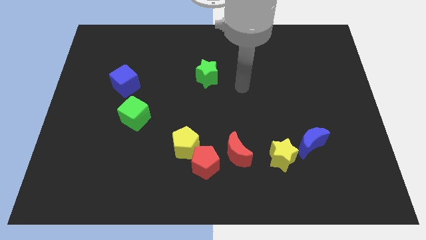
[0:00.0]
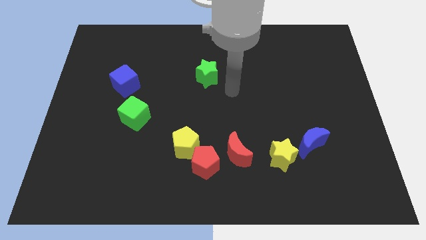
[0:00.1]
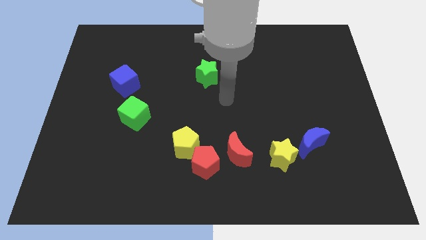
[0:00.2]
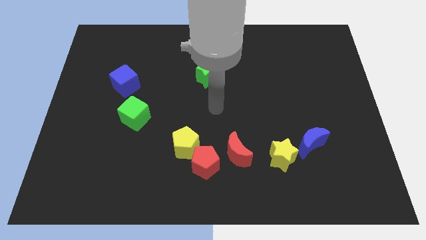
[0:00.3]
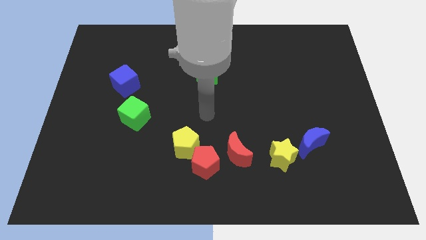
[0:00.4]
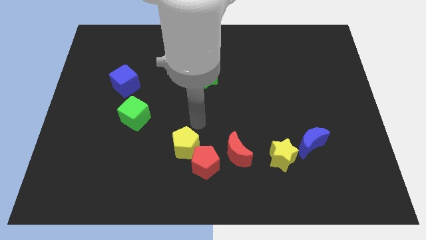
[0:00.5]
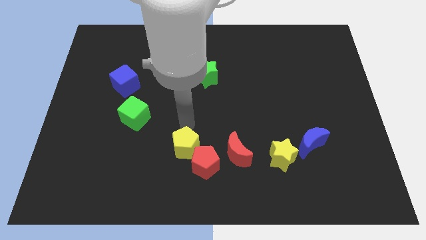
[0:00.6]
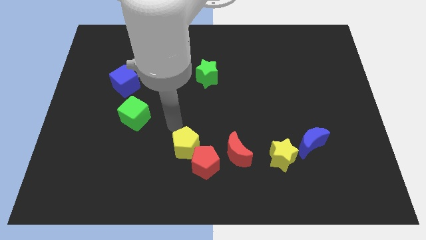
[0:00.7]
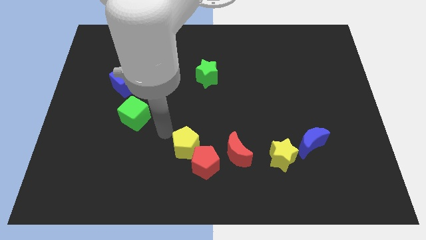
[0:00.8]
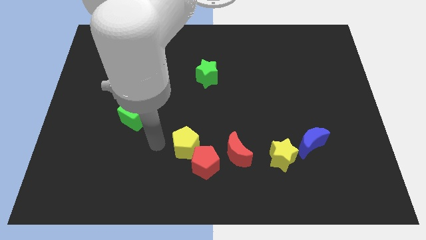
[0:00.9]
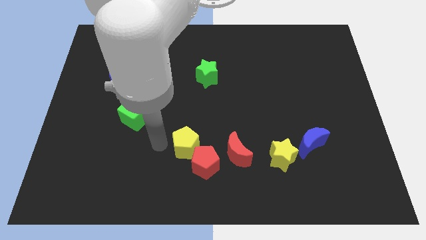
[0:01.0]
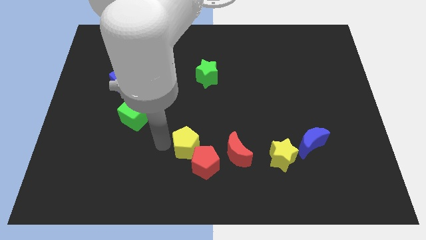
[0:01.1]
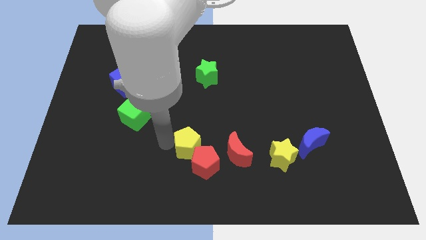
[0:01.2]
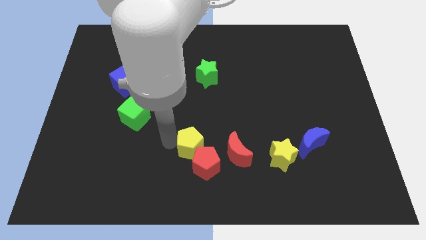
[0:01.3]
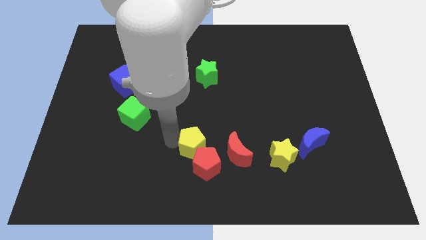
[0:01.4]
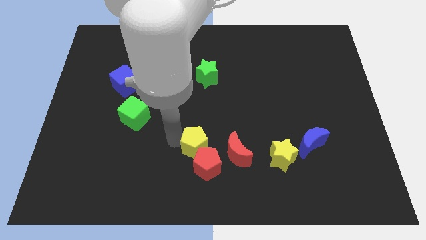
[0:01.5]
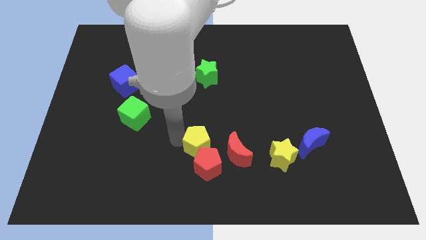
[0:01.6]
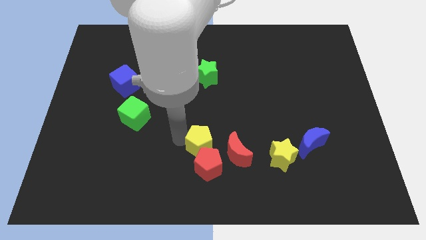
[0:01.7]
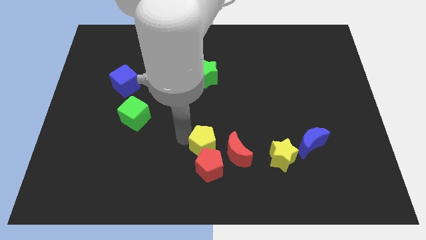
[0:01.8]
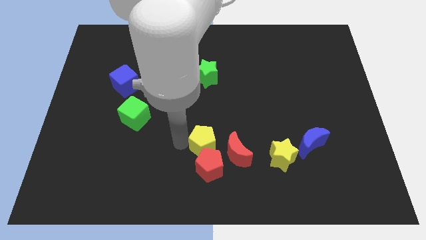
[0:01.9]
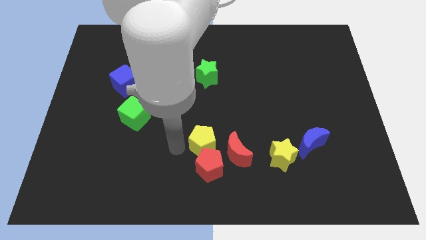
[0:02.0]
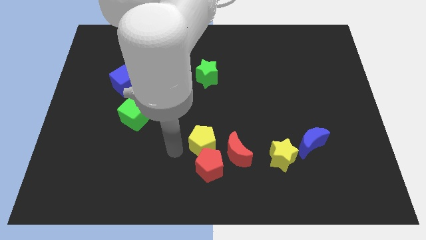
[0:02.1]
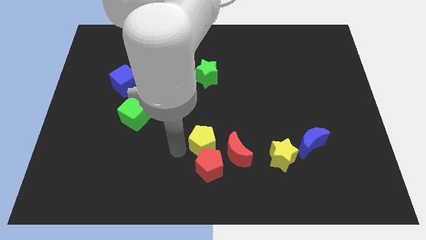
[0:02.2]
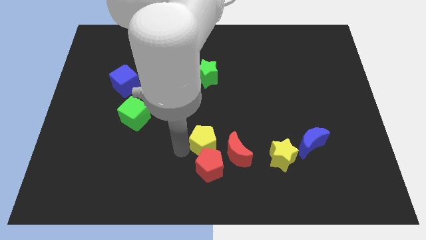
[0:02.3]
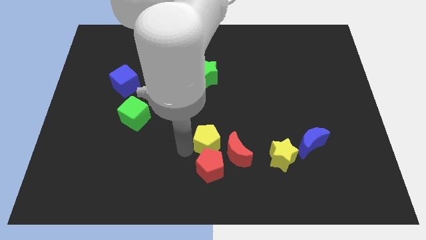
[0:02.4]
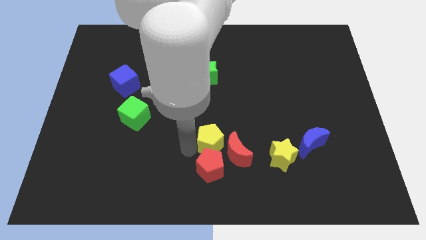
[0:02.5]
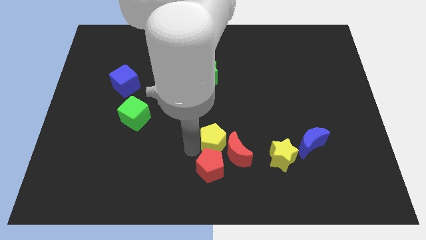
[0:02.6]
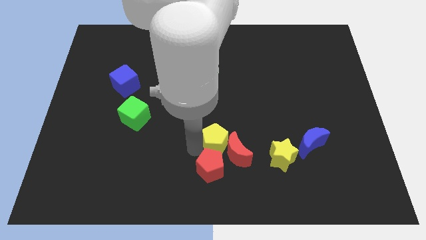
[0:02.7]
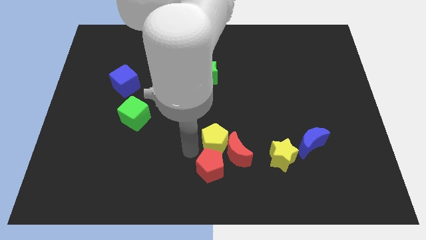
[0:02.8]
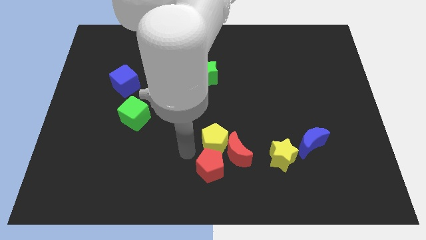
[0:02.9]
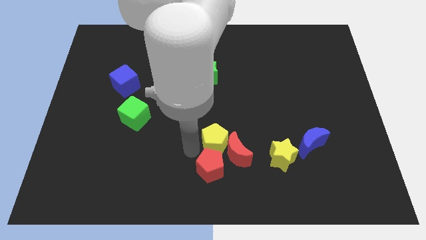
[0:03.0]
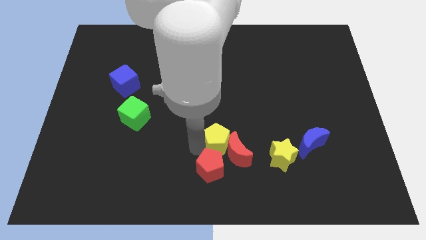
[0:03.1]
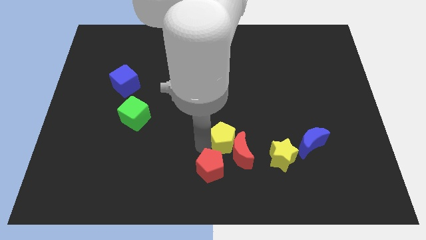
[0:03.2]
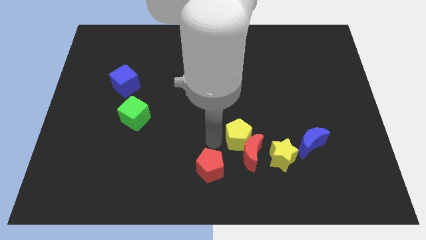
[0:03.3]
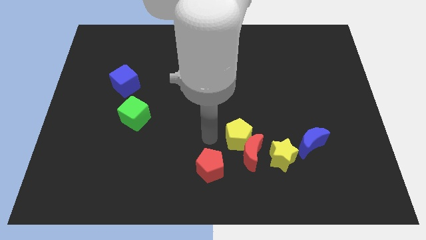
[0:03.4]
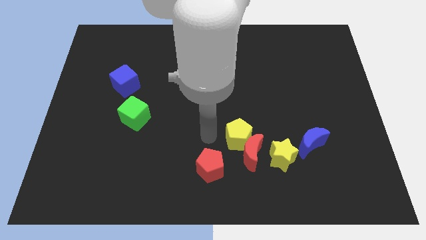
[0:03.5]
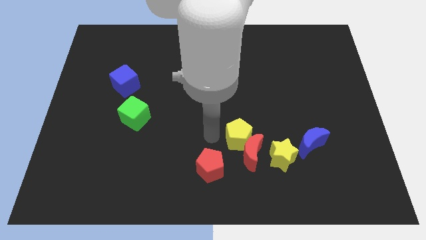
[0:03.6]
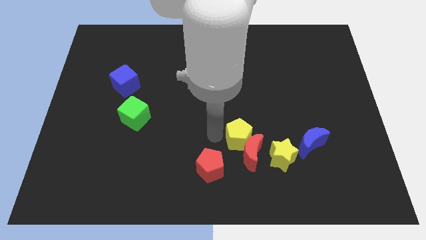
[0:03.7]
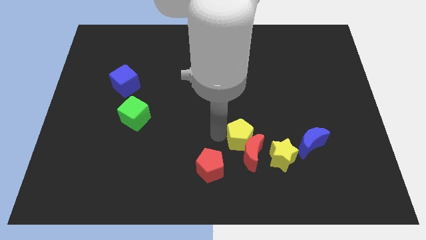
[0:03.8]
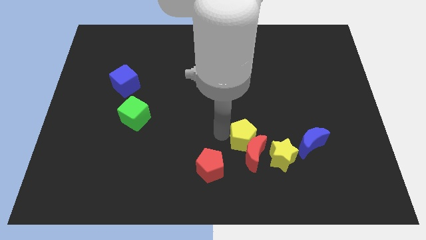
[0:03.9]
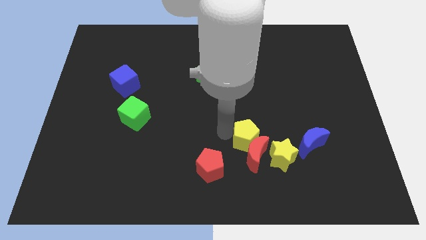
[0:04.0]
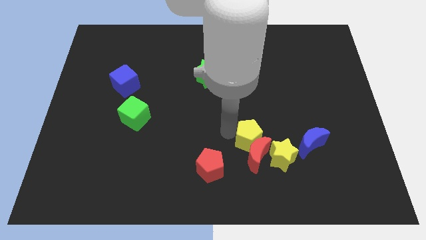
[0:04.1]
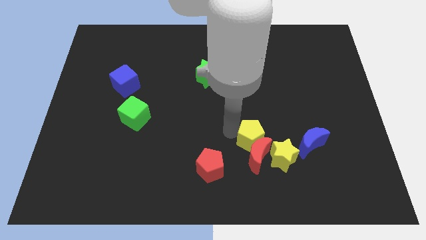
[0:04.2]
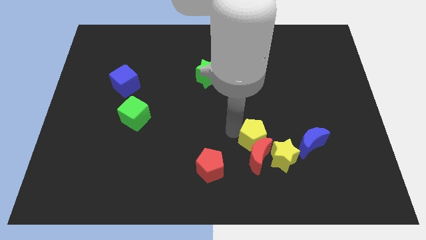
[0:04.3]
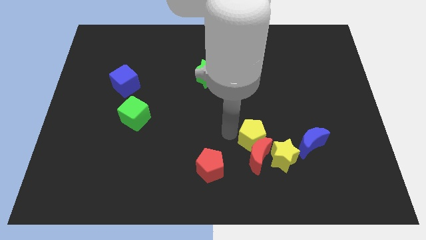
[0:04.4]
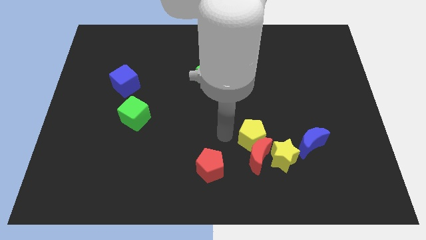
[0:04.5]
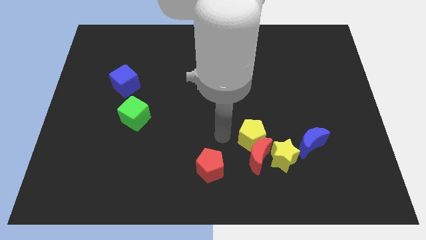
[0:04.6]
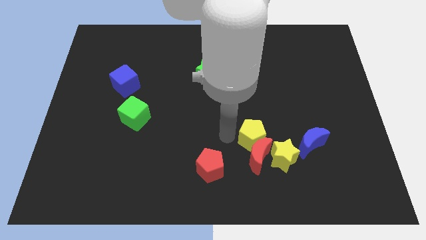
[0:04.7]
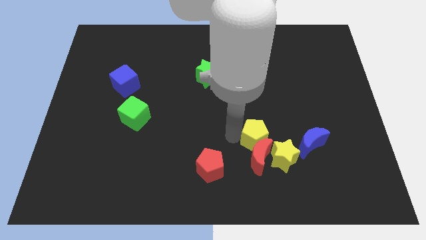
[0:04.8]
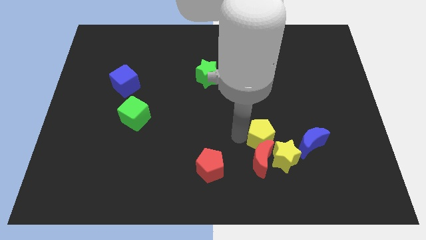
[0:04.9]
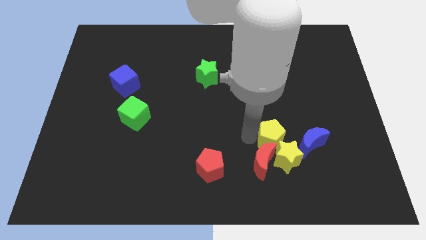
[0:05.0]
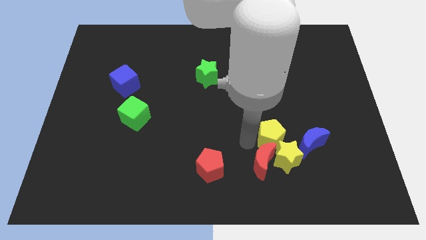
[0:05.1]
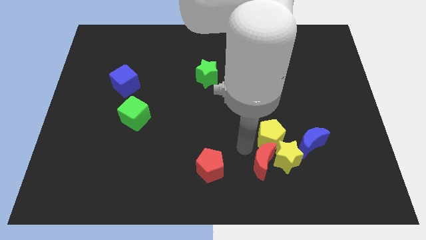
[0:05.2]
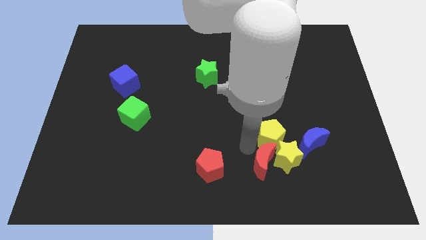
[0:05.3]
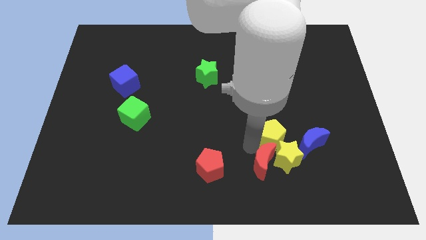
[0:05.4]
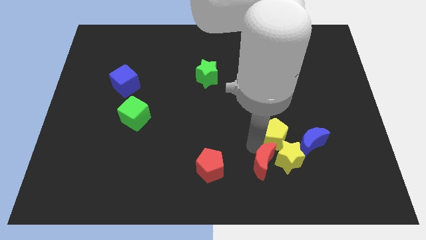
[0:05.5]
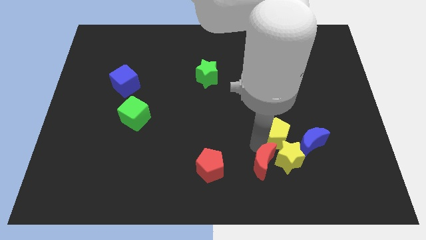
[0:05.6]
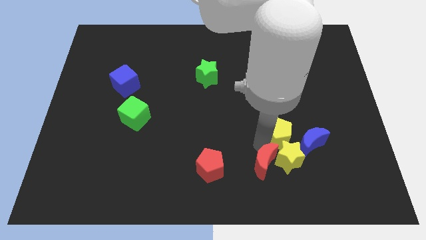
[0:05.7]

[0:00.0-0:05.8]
push the yellow pentagon to the right

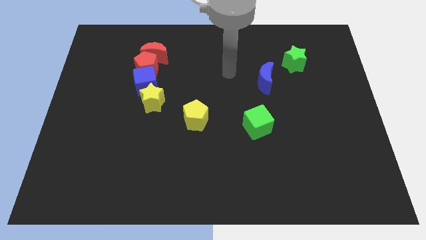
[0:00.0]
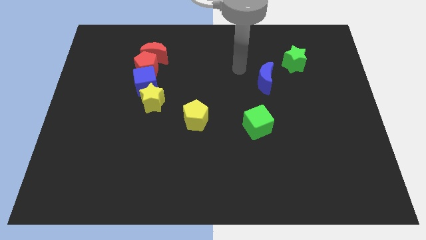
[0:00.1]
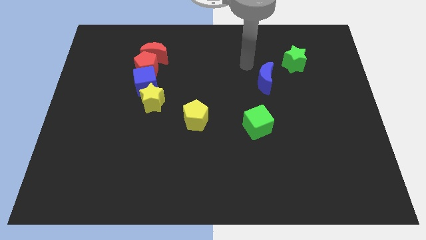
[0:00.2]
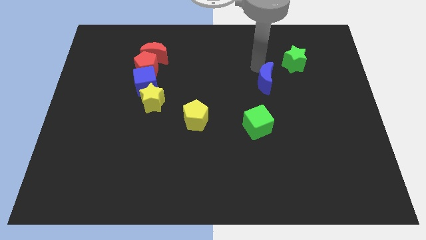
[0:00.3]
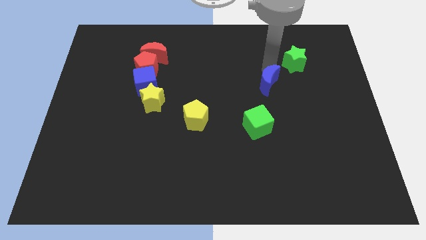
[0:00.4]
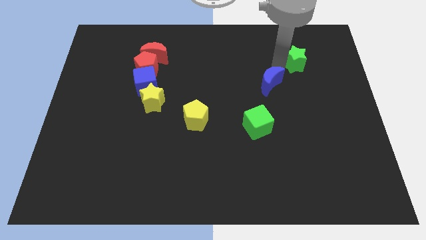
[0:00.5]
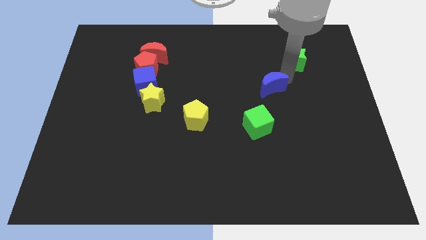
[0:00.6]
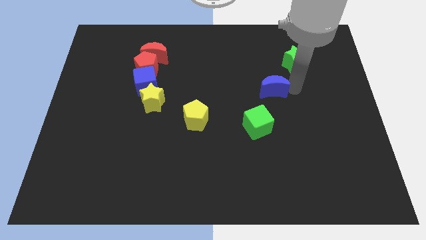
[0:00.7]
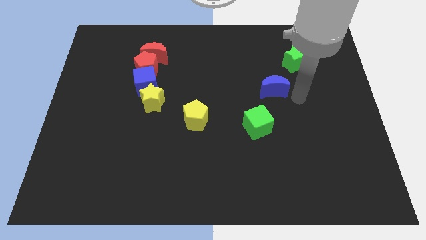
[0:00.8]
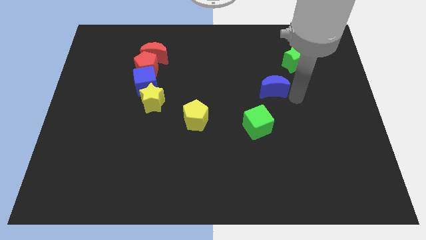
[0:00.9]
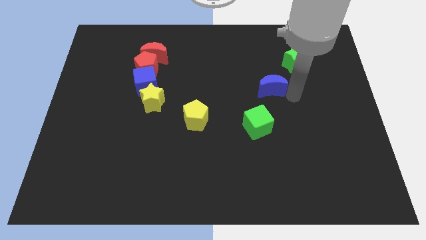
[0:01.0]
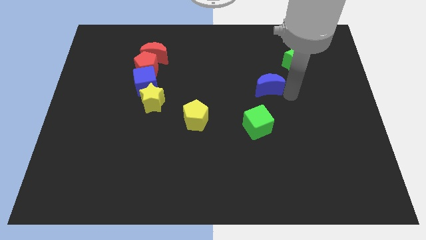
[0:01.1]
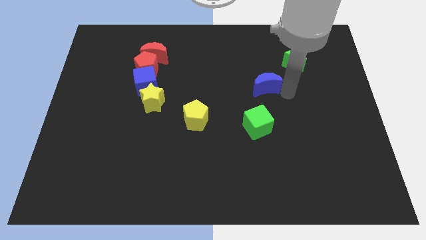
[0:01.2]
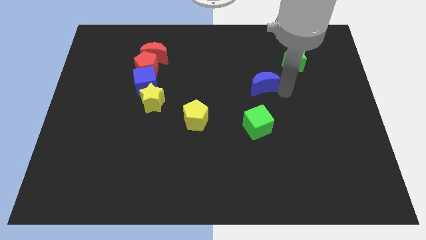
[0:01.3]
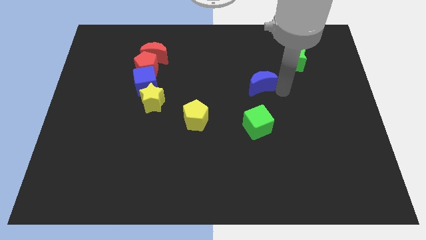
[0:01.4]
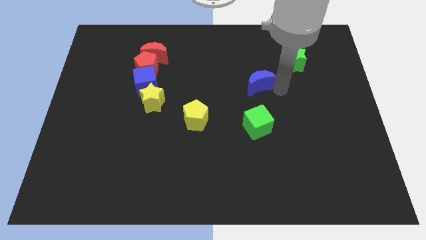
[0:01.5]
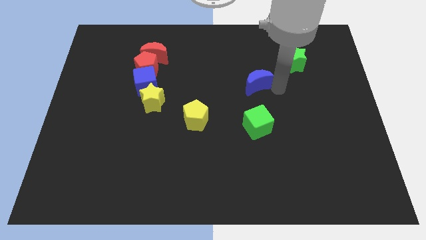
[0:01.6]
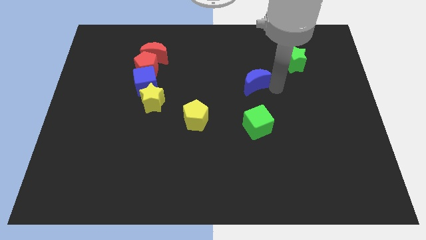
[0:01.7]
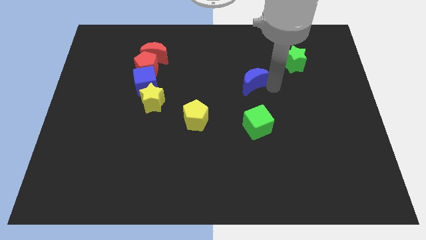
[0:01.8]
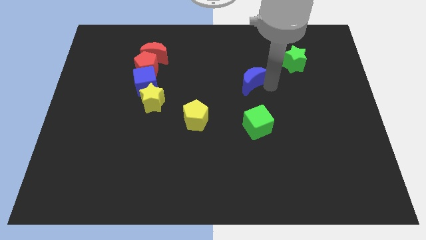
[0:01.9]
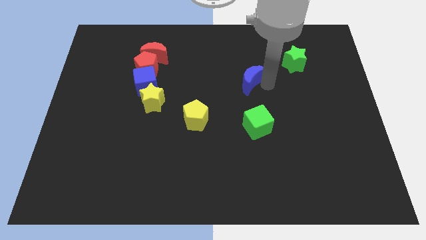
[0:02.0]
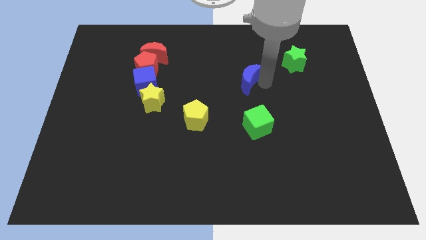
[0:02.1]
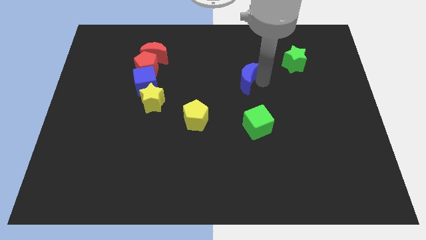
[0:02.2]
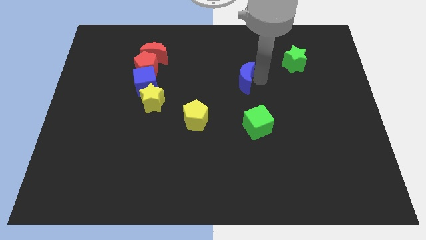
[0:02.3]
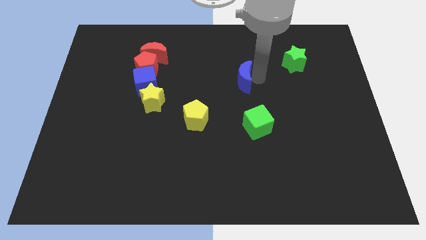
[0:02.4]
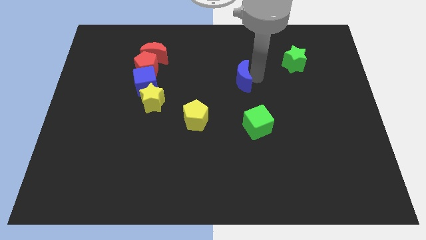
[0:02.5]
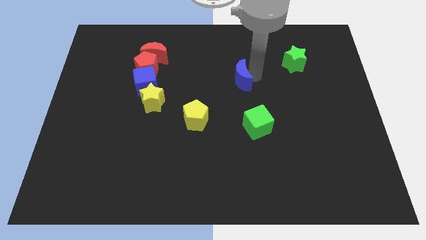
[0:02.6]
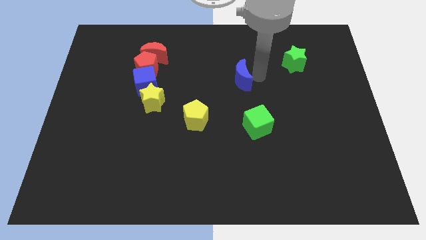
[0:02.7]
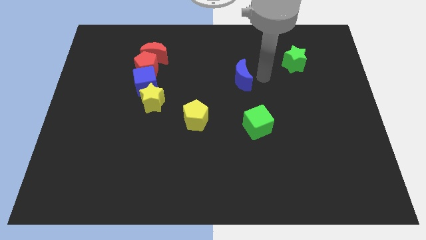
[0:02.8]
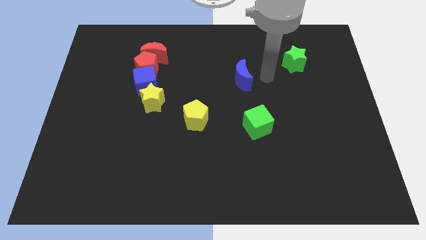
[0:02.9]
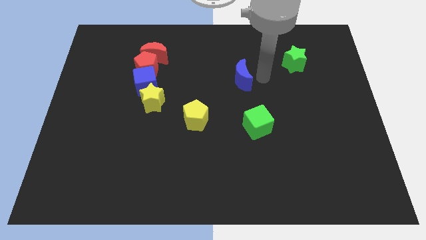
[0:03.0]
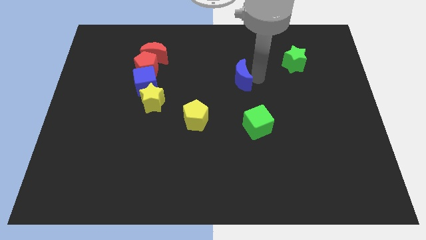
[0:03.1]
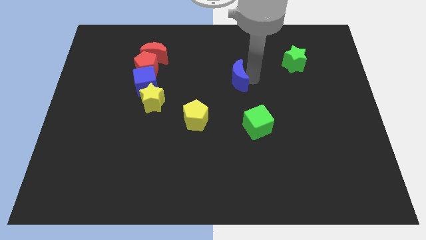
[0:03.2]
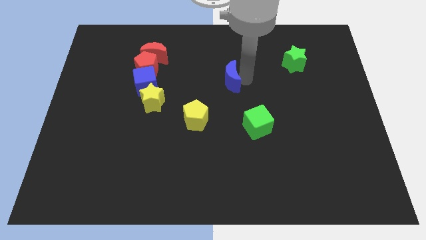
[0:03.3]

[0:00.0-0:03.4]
slightly push the blue moon to the left
